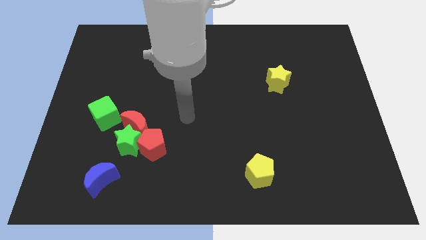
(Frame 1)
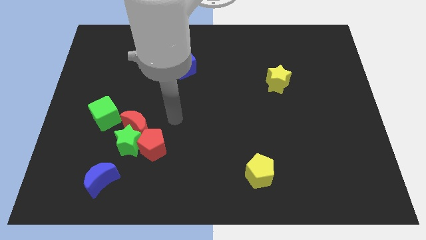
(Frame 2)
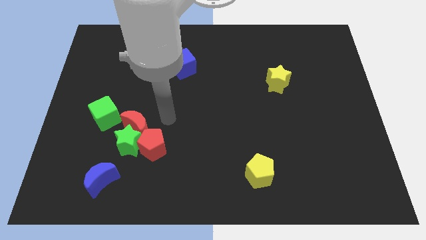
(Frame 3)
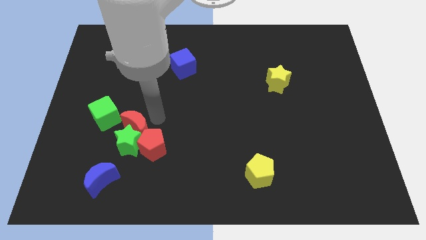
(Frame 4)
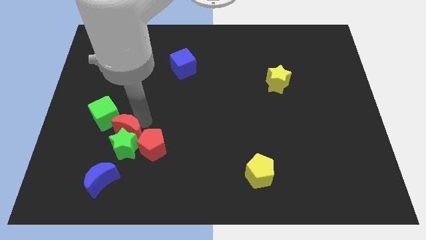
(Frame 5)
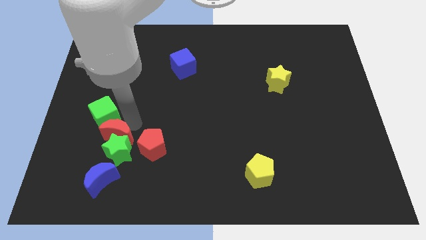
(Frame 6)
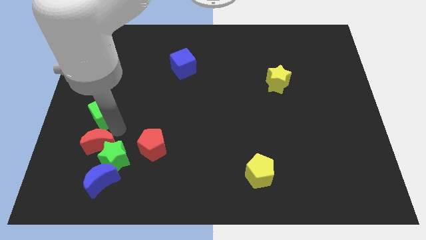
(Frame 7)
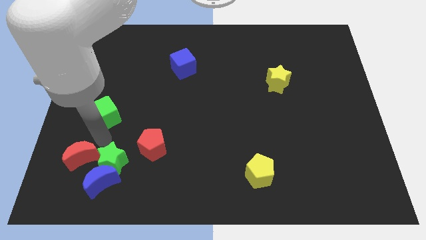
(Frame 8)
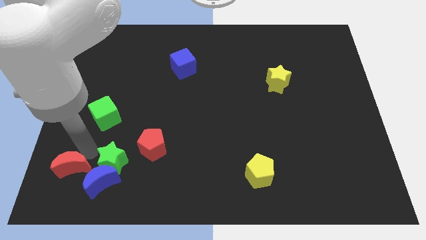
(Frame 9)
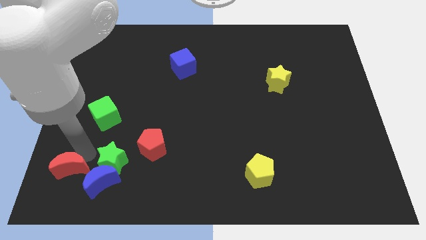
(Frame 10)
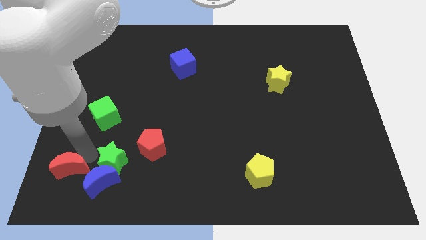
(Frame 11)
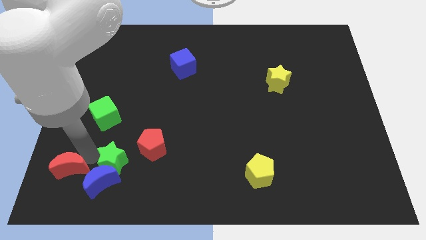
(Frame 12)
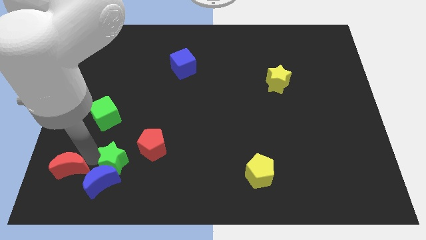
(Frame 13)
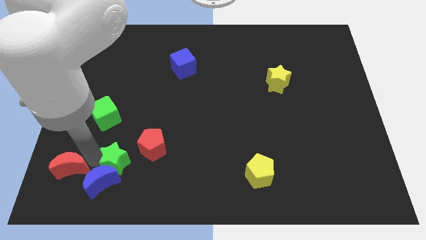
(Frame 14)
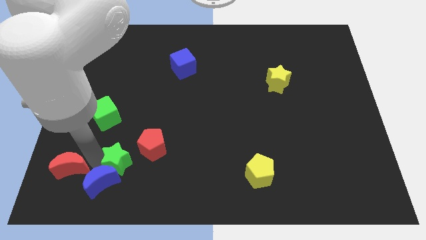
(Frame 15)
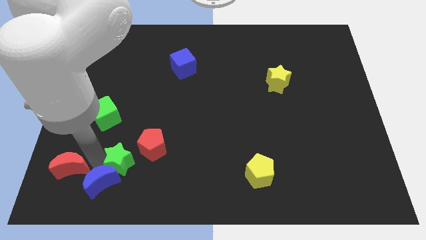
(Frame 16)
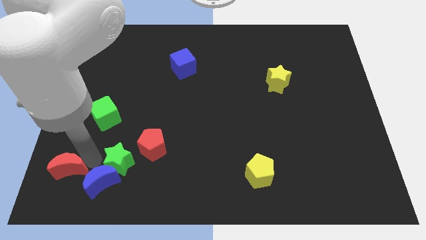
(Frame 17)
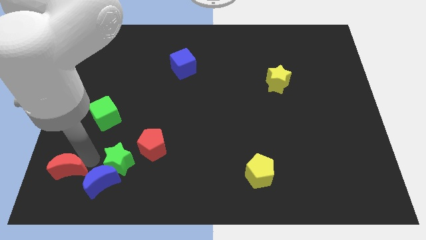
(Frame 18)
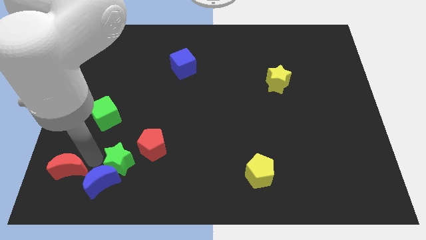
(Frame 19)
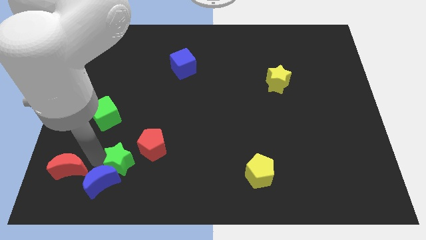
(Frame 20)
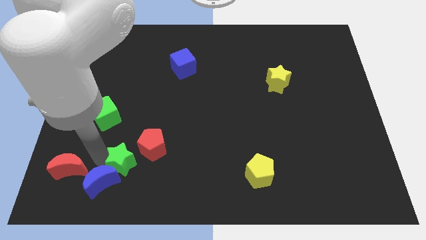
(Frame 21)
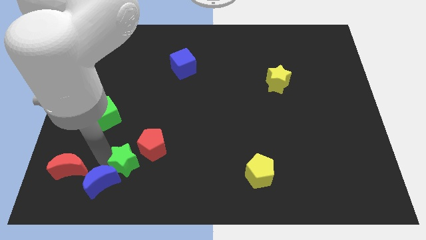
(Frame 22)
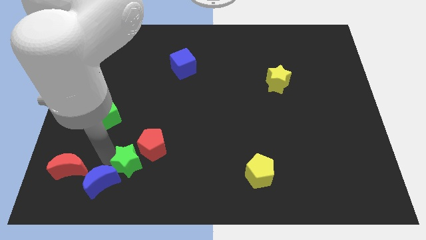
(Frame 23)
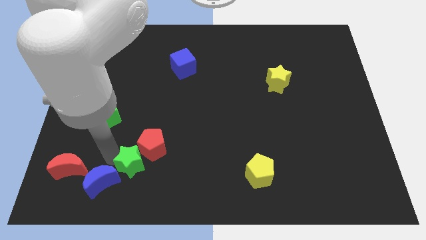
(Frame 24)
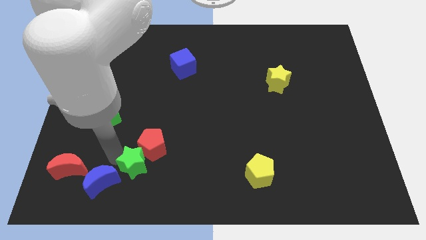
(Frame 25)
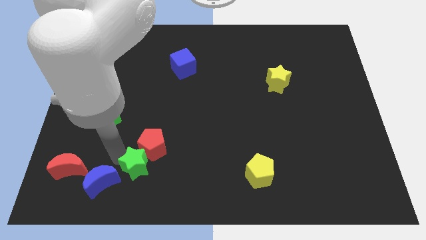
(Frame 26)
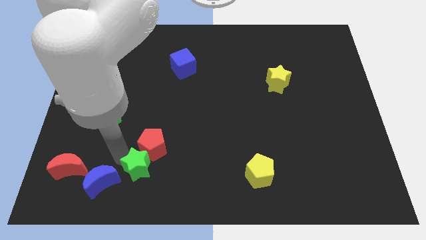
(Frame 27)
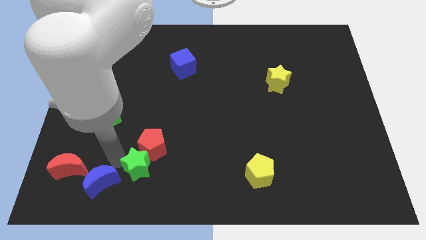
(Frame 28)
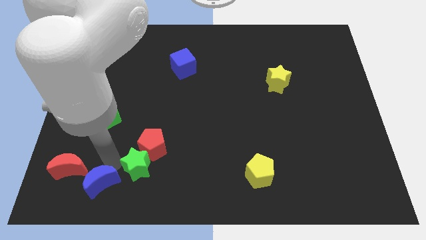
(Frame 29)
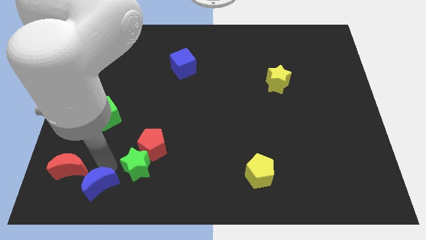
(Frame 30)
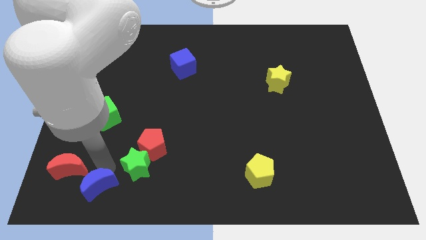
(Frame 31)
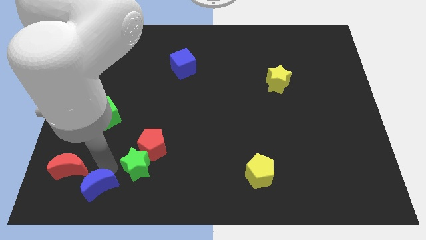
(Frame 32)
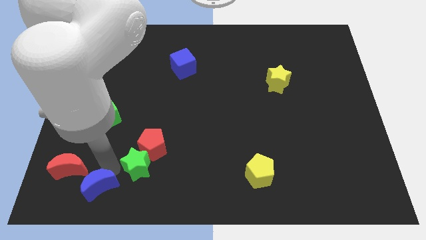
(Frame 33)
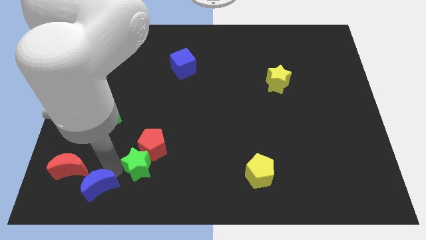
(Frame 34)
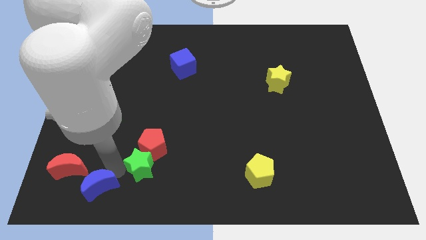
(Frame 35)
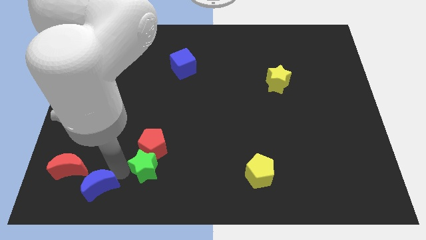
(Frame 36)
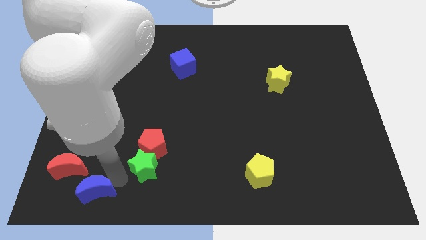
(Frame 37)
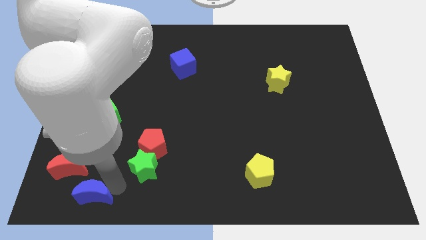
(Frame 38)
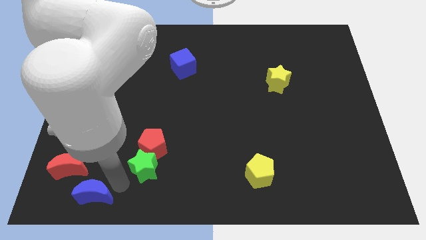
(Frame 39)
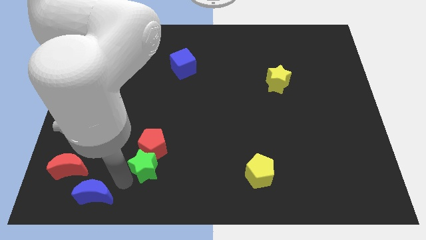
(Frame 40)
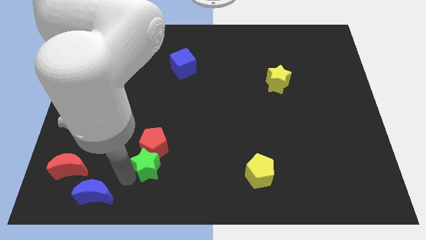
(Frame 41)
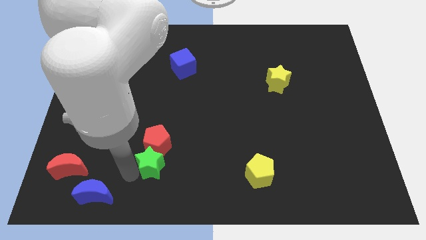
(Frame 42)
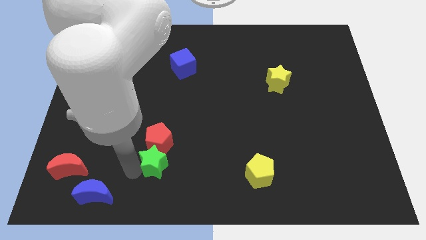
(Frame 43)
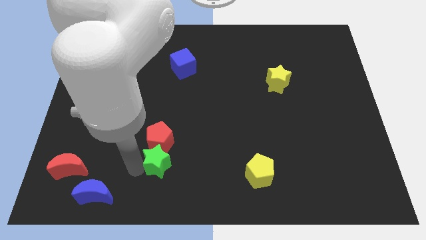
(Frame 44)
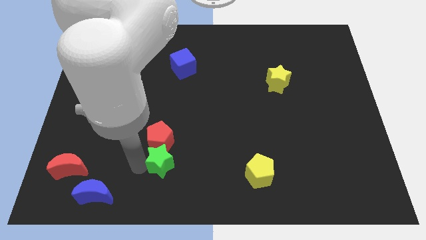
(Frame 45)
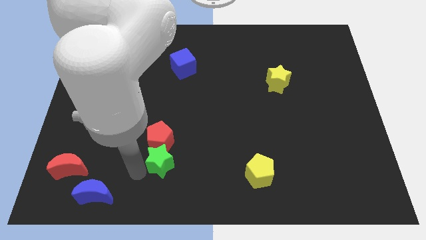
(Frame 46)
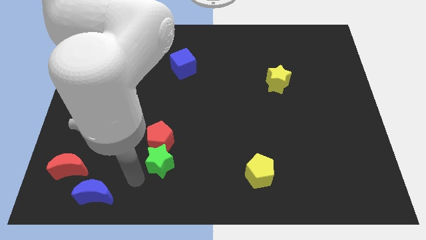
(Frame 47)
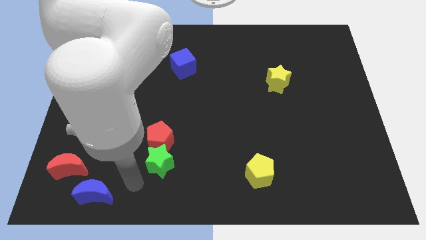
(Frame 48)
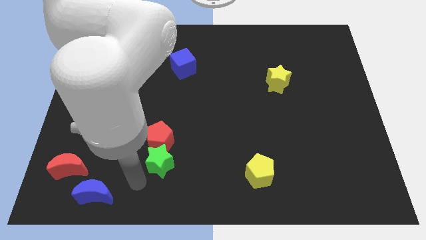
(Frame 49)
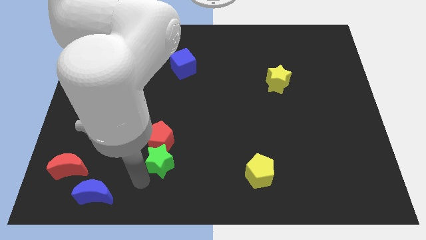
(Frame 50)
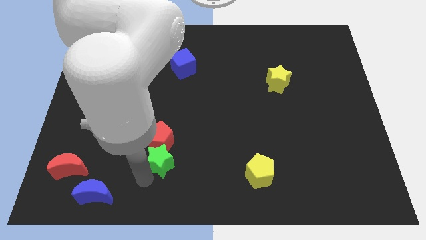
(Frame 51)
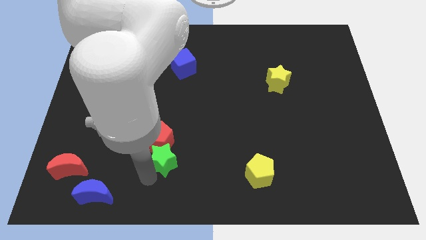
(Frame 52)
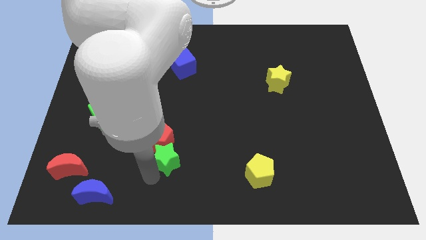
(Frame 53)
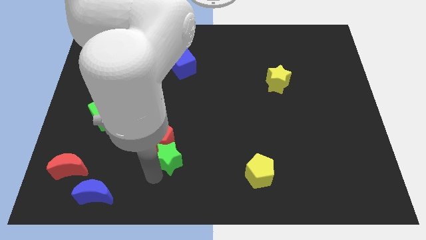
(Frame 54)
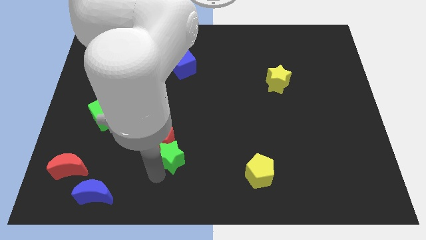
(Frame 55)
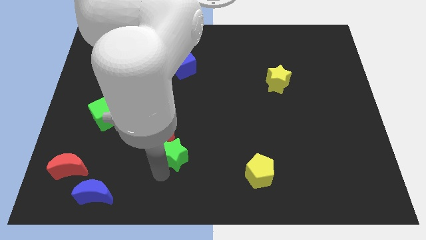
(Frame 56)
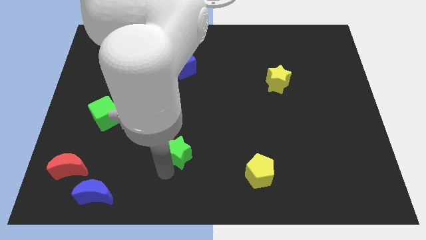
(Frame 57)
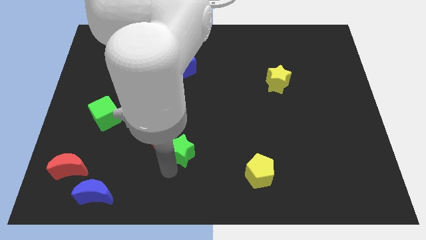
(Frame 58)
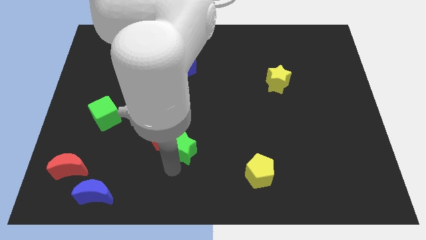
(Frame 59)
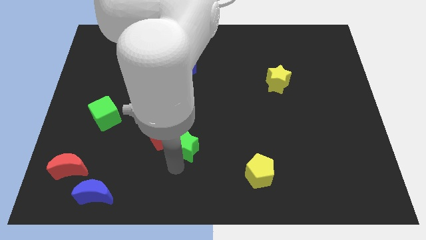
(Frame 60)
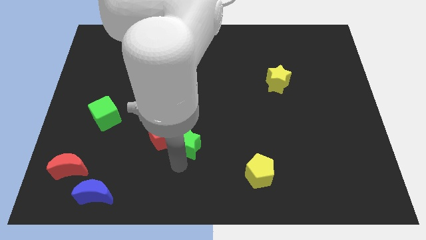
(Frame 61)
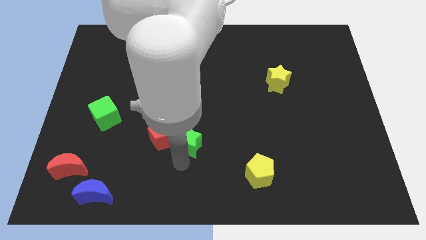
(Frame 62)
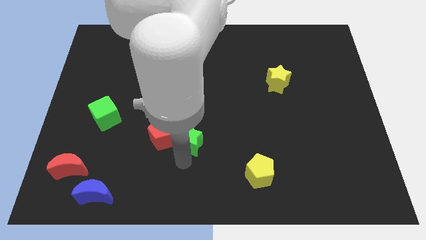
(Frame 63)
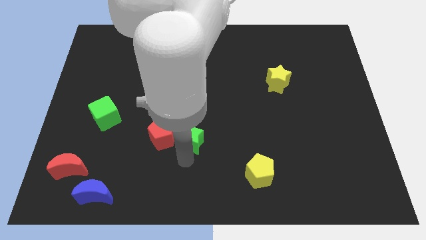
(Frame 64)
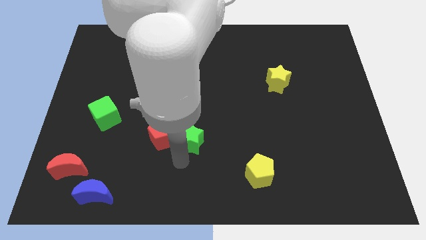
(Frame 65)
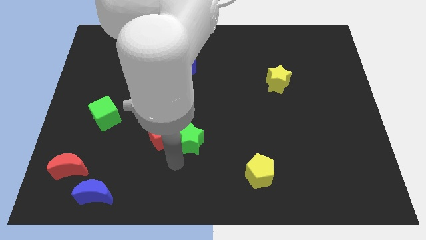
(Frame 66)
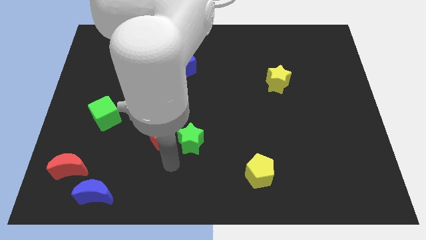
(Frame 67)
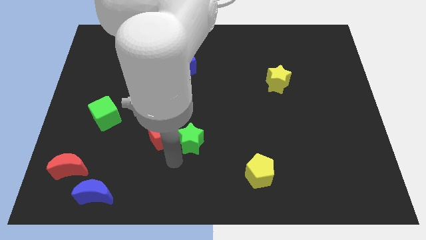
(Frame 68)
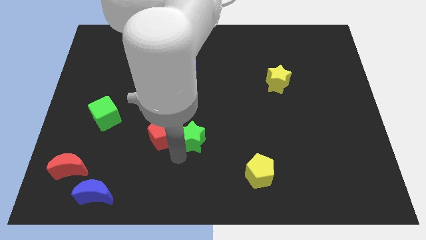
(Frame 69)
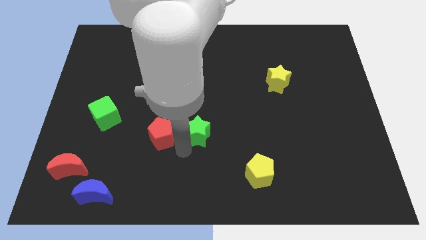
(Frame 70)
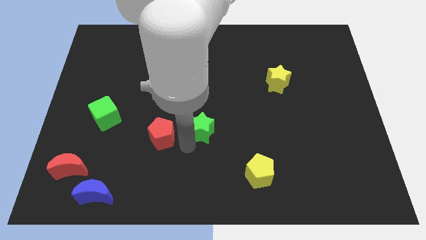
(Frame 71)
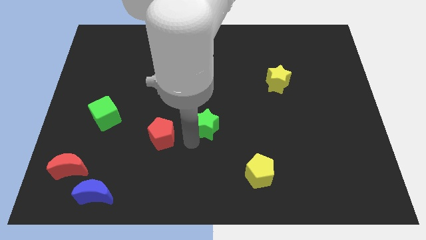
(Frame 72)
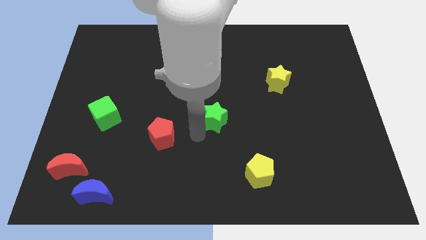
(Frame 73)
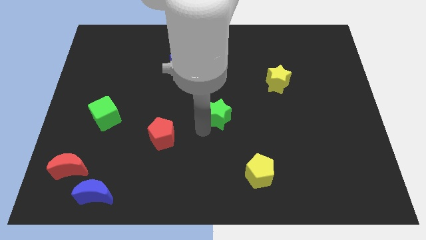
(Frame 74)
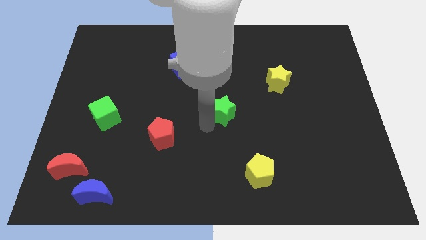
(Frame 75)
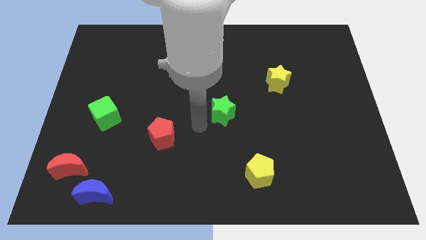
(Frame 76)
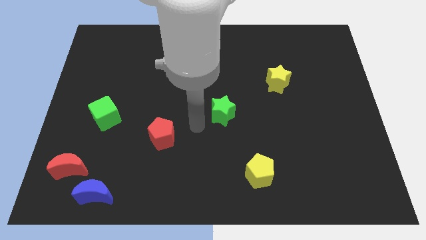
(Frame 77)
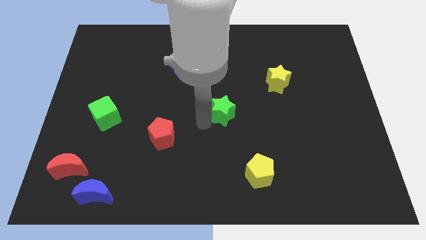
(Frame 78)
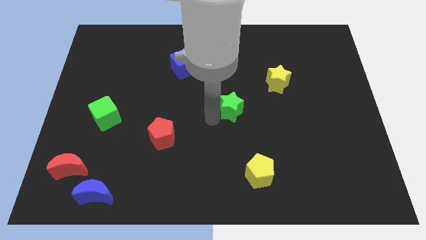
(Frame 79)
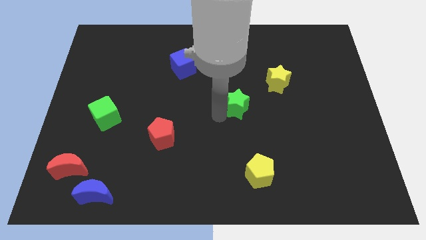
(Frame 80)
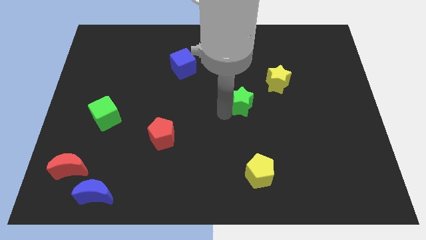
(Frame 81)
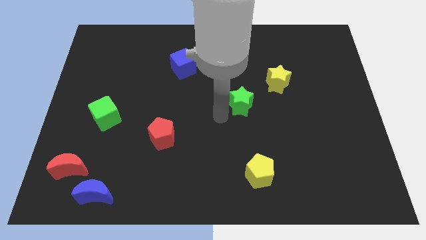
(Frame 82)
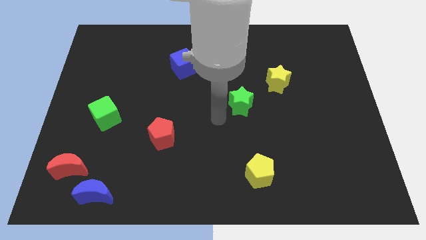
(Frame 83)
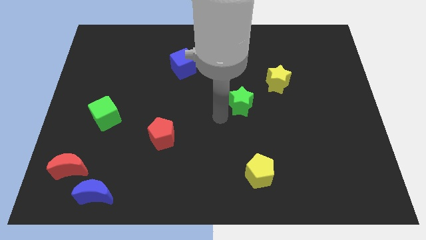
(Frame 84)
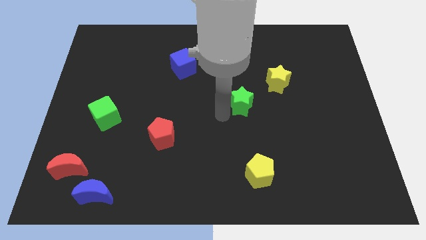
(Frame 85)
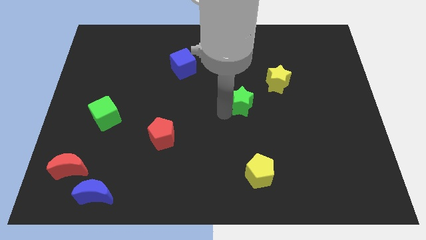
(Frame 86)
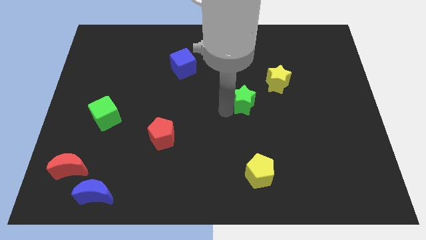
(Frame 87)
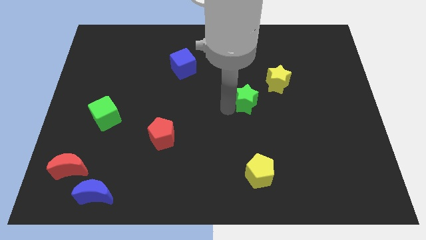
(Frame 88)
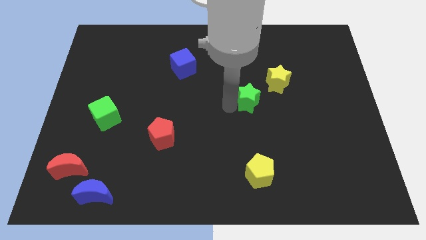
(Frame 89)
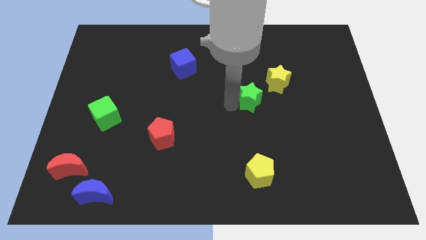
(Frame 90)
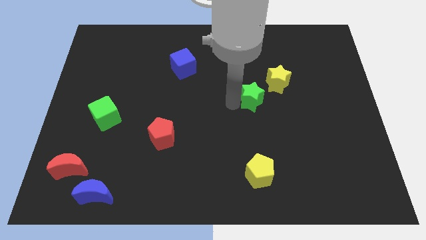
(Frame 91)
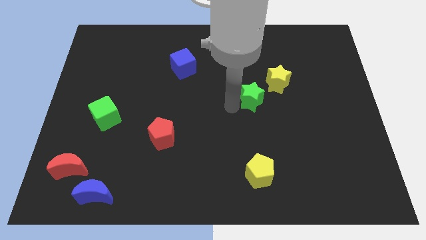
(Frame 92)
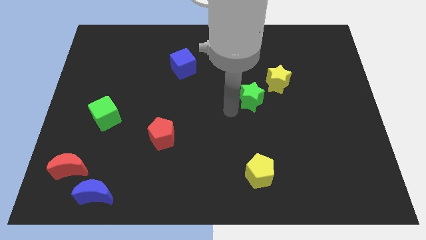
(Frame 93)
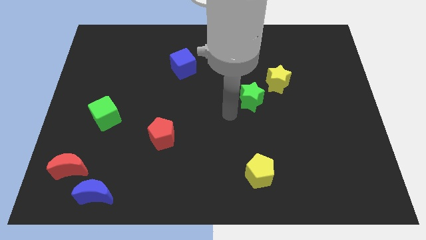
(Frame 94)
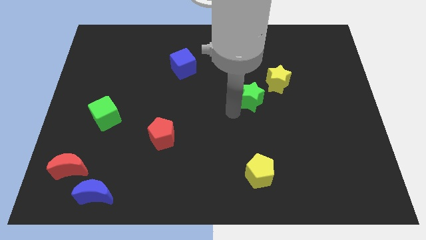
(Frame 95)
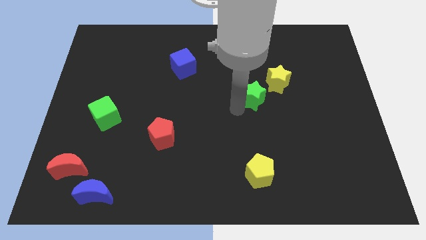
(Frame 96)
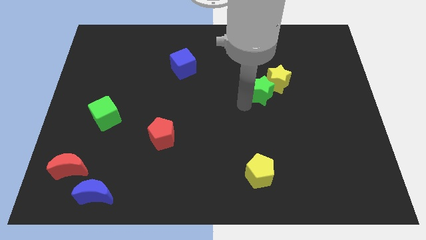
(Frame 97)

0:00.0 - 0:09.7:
push the green star towards the yellow star
